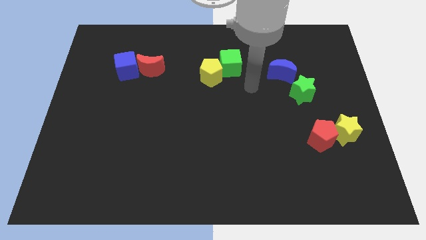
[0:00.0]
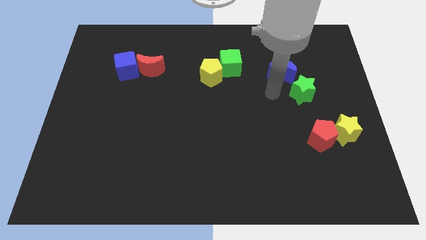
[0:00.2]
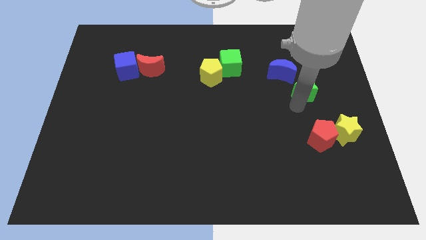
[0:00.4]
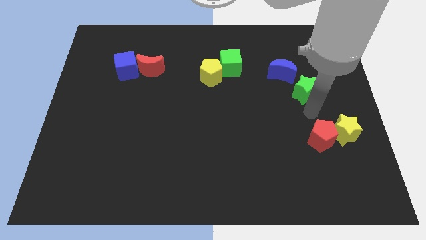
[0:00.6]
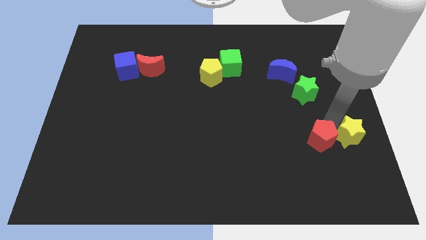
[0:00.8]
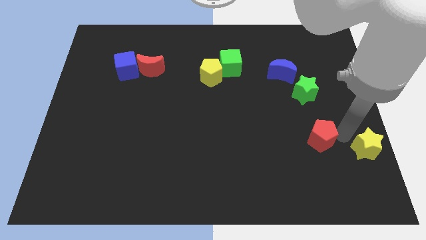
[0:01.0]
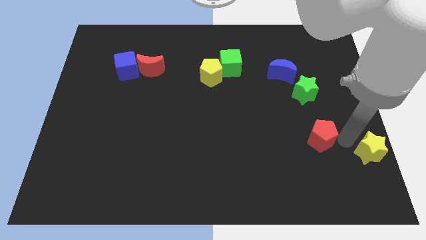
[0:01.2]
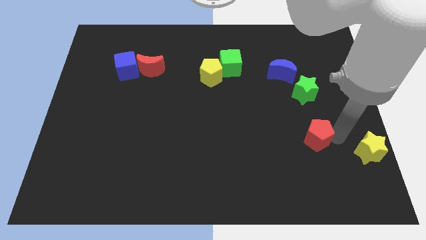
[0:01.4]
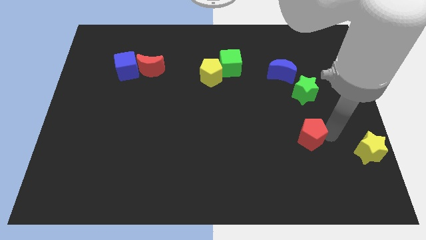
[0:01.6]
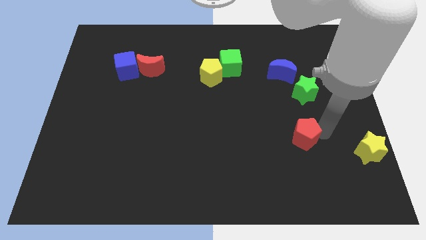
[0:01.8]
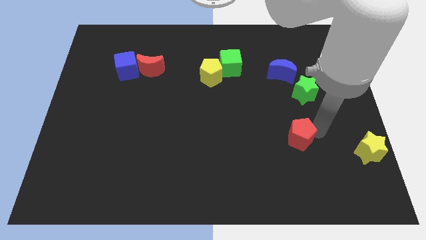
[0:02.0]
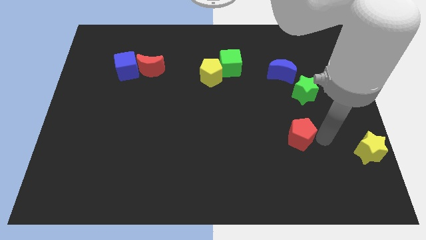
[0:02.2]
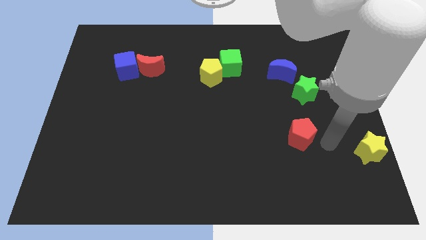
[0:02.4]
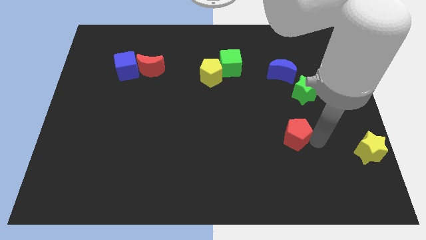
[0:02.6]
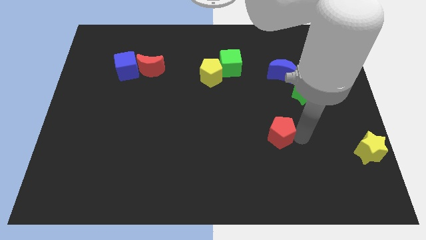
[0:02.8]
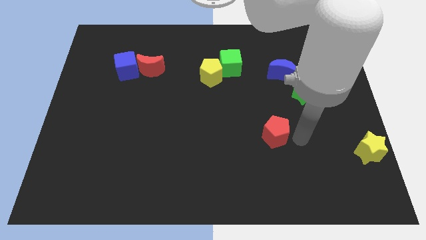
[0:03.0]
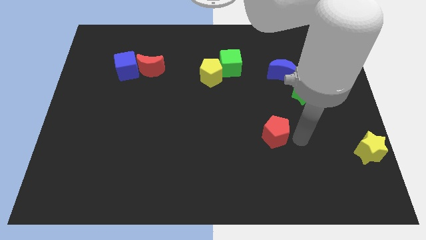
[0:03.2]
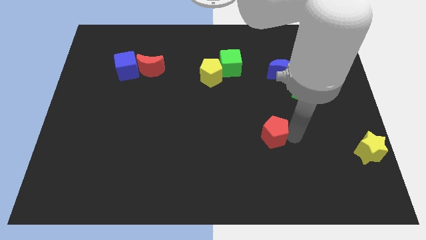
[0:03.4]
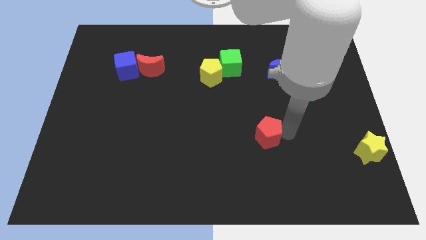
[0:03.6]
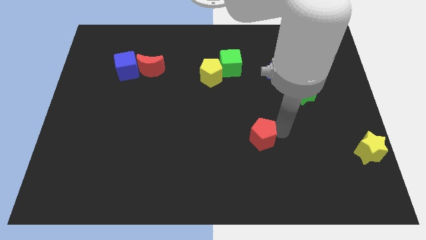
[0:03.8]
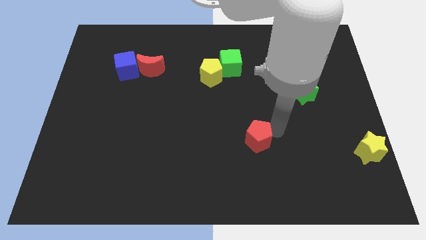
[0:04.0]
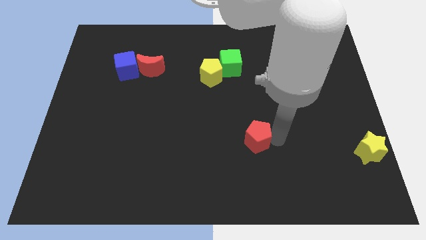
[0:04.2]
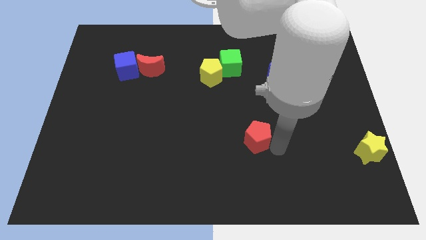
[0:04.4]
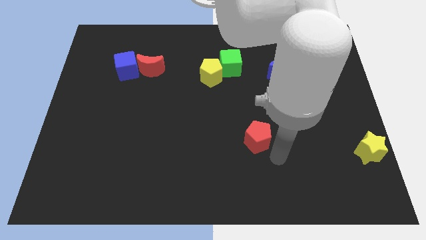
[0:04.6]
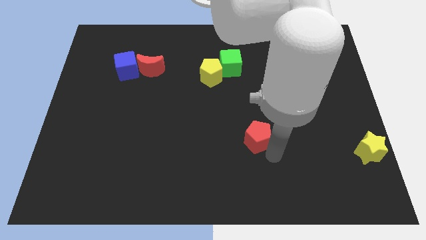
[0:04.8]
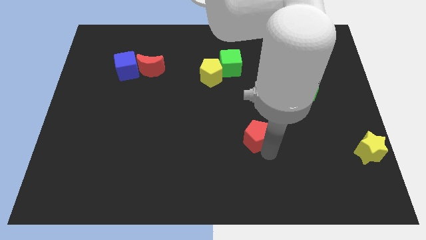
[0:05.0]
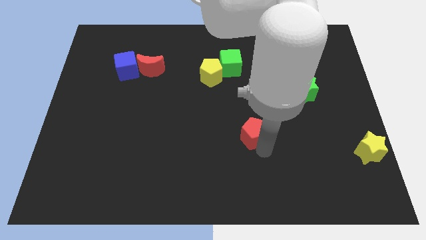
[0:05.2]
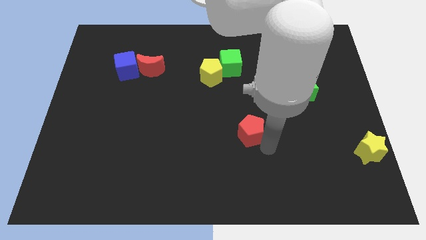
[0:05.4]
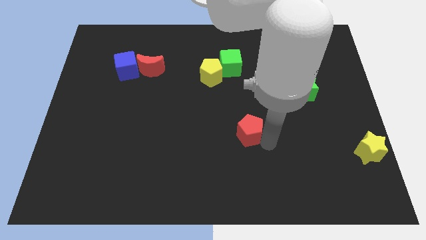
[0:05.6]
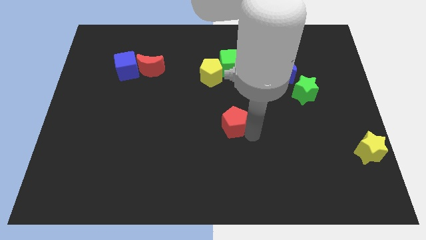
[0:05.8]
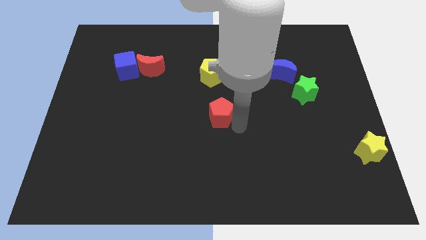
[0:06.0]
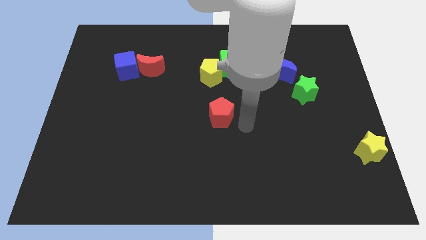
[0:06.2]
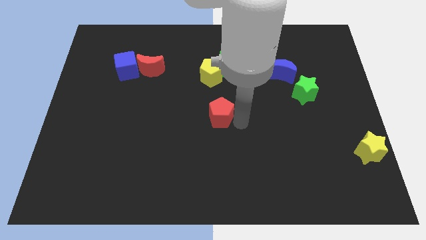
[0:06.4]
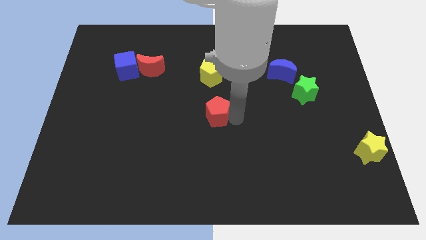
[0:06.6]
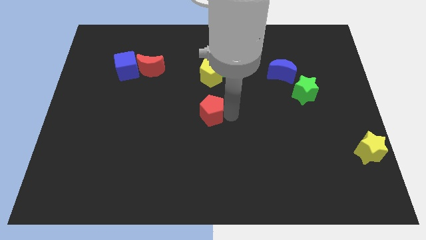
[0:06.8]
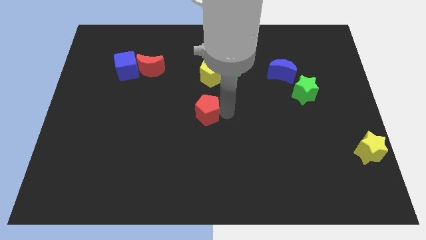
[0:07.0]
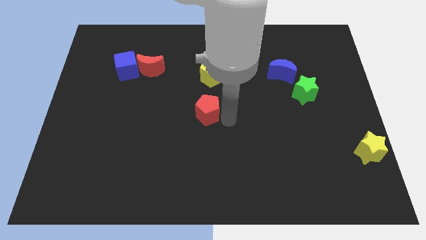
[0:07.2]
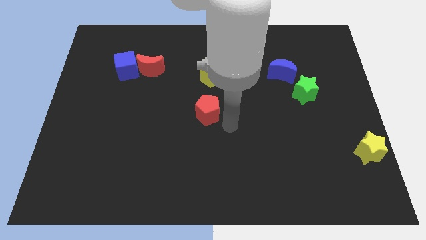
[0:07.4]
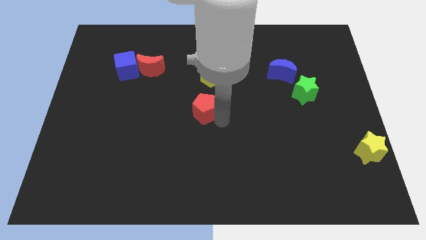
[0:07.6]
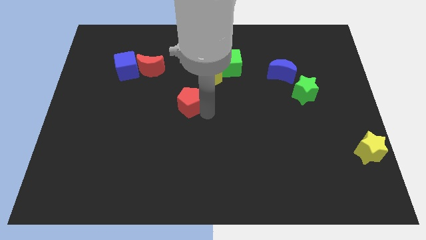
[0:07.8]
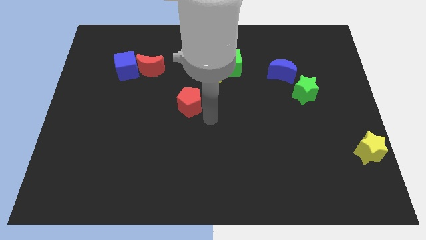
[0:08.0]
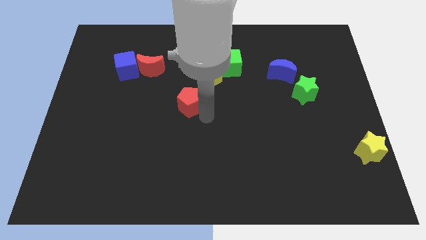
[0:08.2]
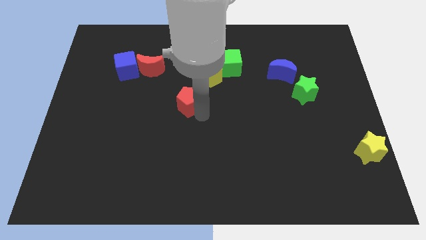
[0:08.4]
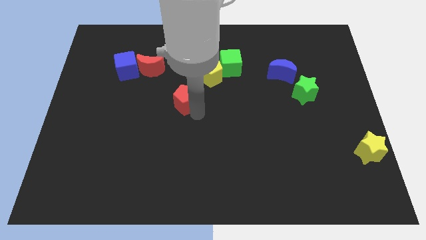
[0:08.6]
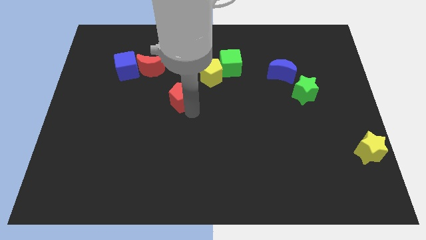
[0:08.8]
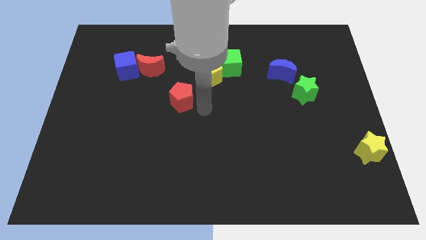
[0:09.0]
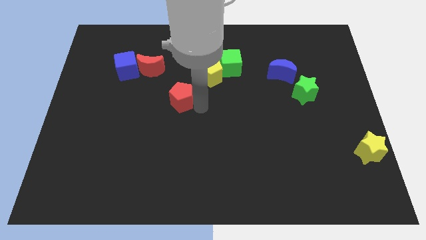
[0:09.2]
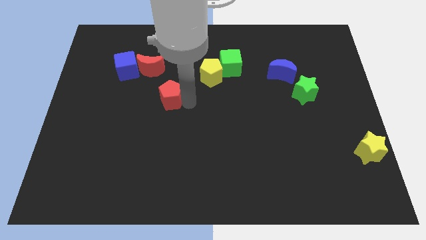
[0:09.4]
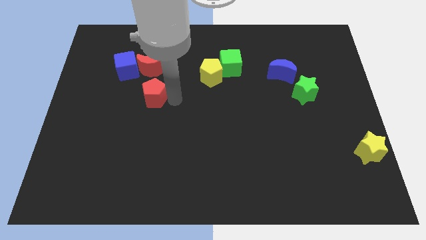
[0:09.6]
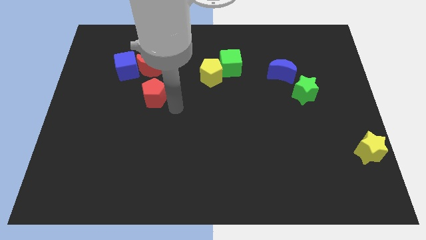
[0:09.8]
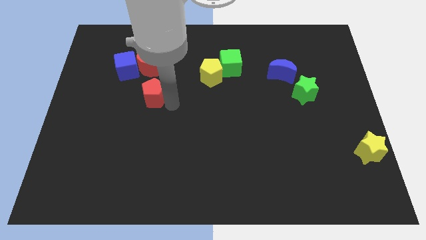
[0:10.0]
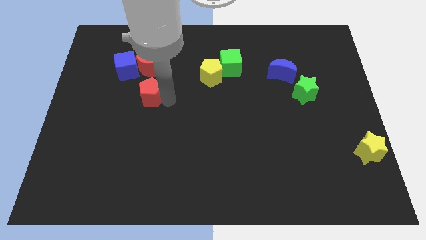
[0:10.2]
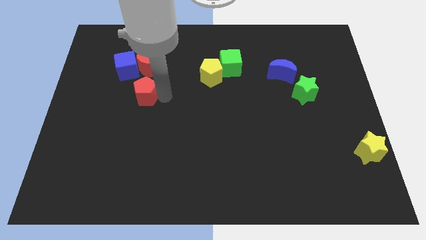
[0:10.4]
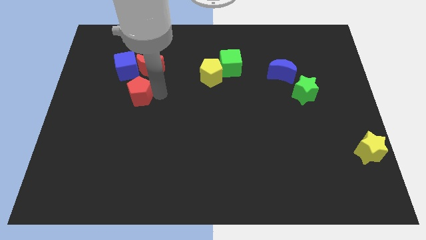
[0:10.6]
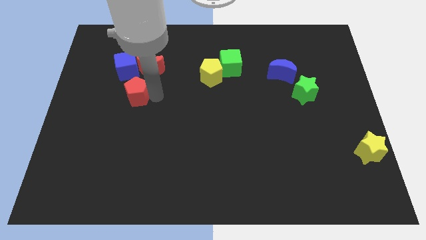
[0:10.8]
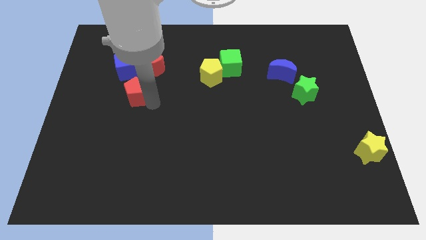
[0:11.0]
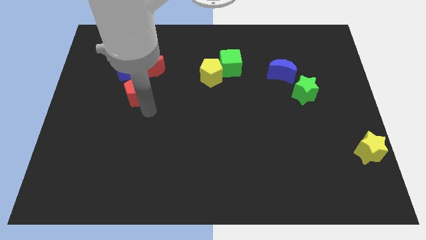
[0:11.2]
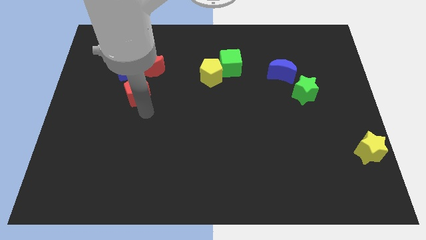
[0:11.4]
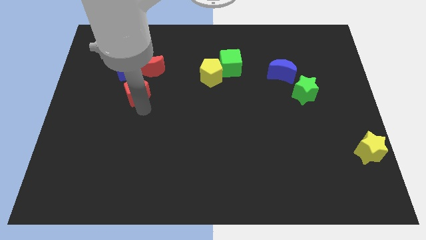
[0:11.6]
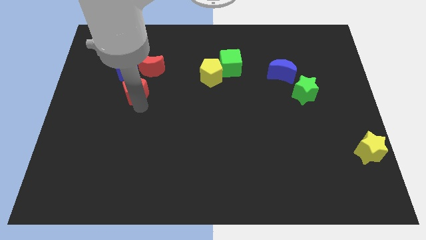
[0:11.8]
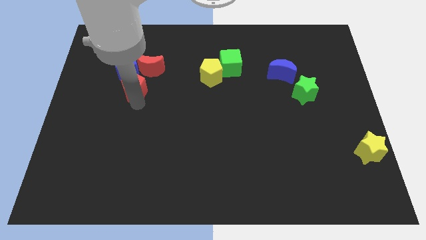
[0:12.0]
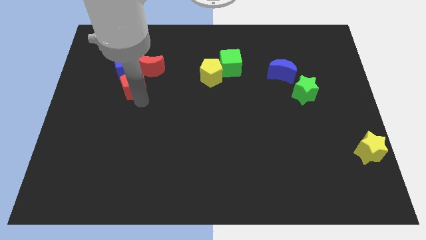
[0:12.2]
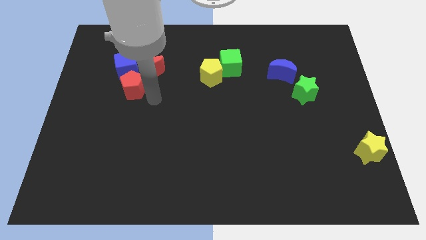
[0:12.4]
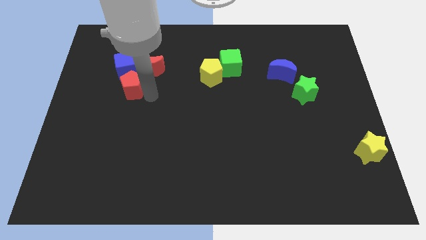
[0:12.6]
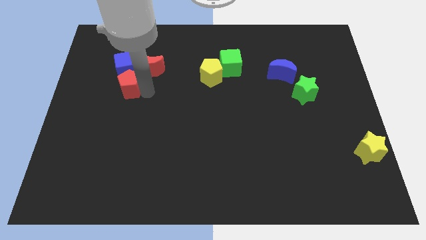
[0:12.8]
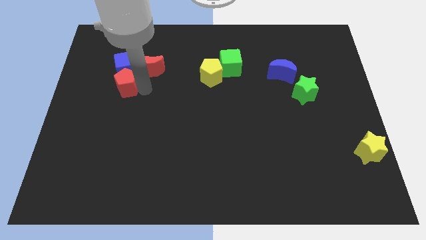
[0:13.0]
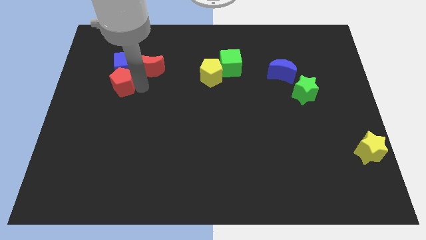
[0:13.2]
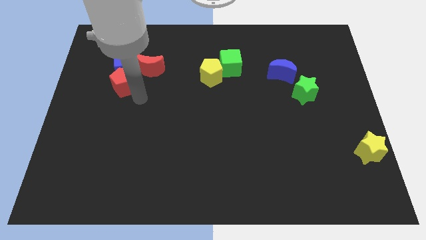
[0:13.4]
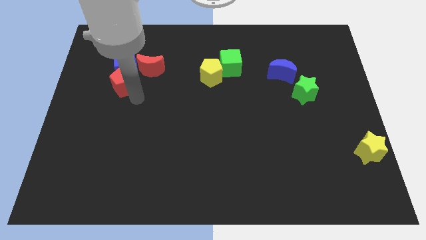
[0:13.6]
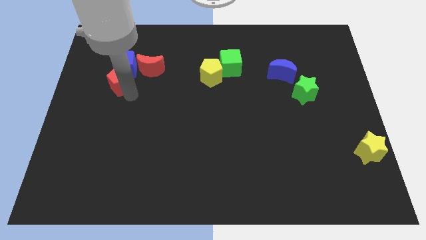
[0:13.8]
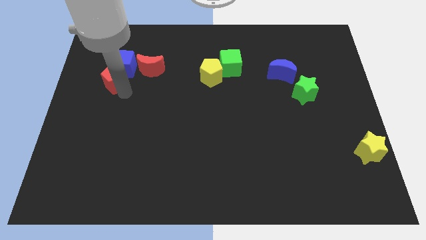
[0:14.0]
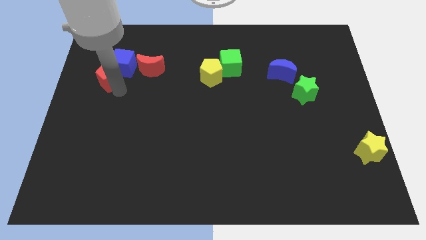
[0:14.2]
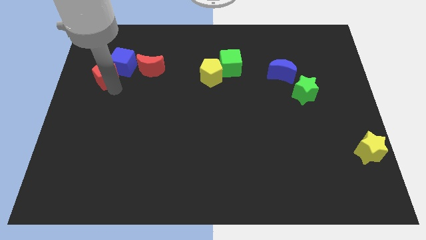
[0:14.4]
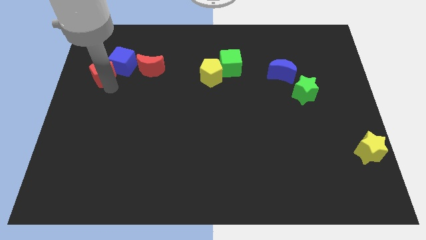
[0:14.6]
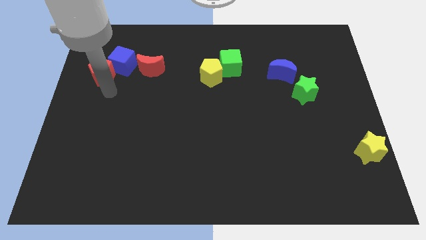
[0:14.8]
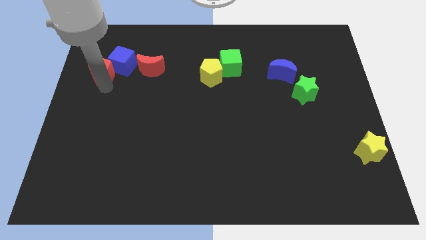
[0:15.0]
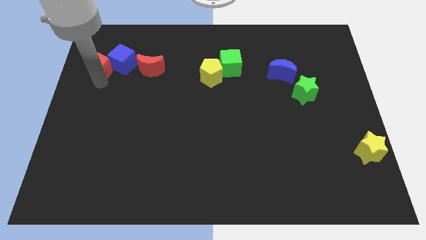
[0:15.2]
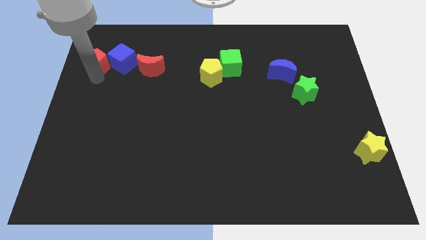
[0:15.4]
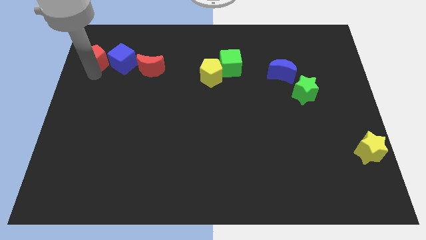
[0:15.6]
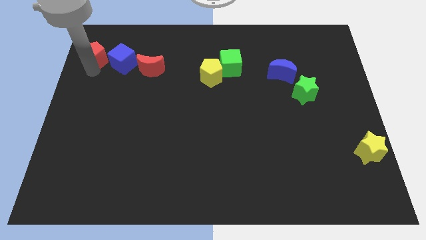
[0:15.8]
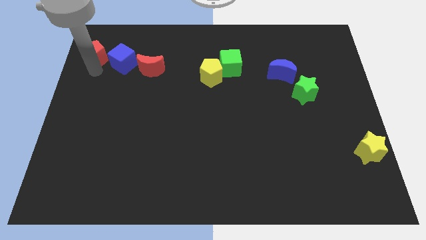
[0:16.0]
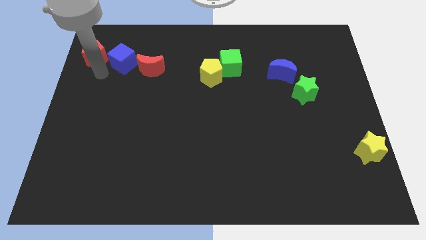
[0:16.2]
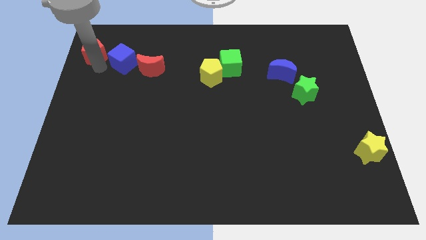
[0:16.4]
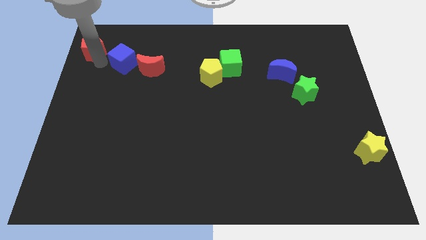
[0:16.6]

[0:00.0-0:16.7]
move the red pentagon to the top left corner
